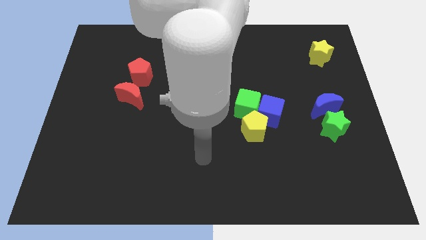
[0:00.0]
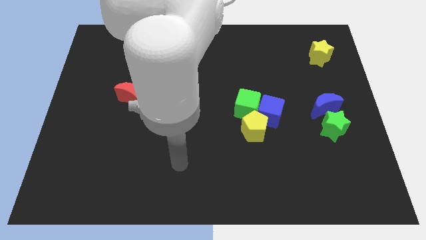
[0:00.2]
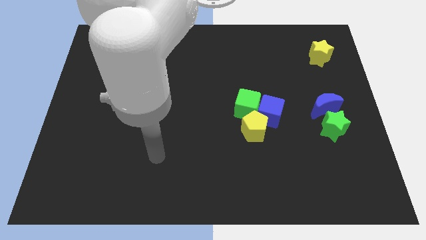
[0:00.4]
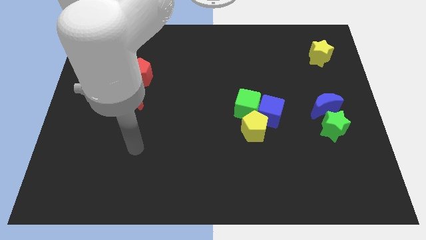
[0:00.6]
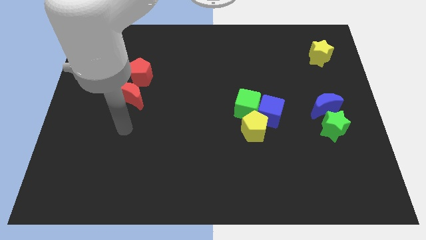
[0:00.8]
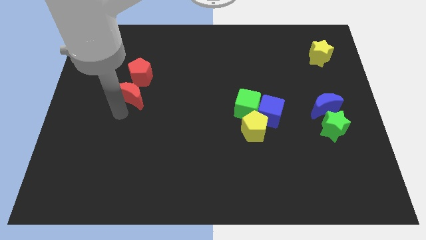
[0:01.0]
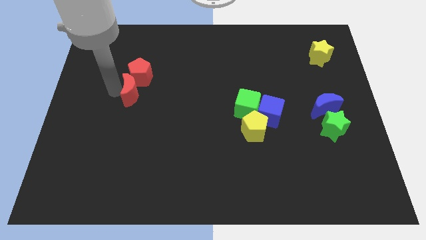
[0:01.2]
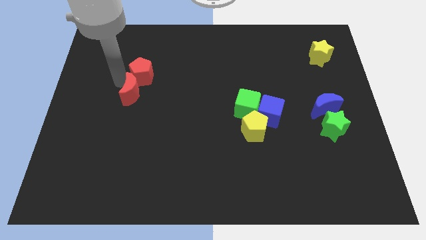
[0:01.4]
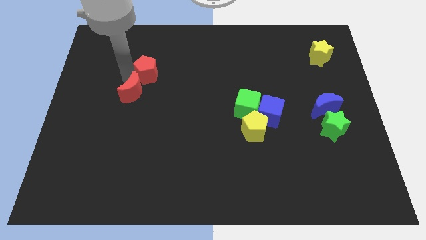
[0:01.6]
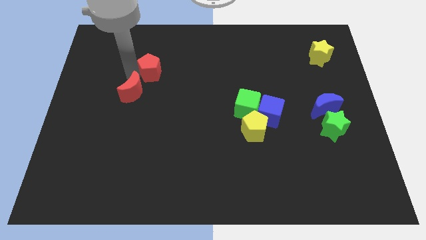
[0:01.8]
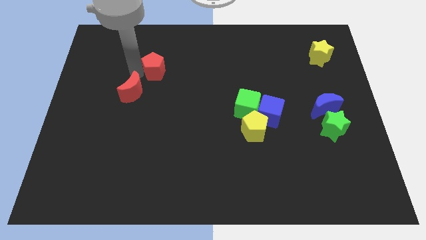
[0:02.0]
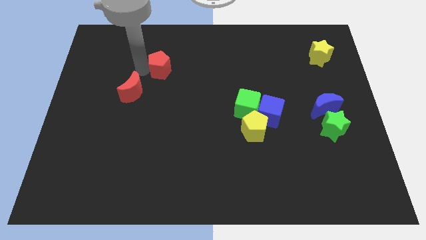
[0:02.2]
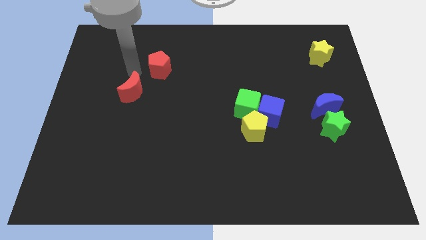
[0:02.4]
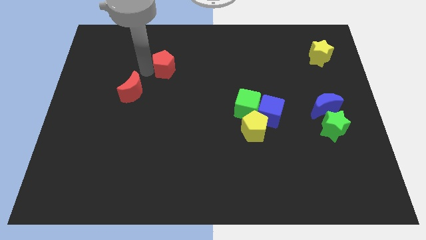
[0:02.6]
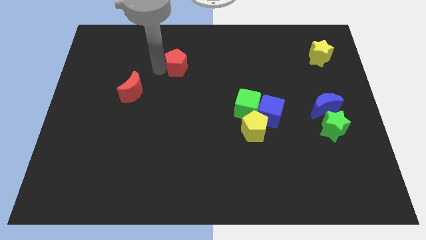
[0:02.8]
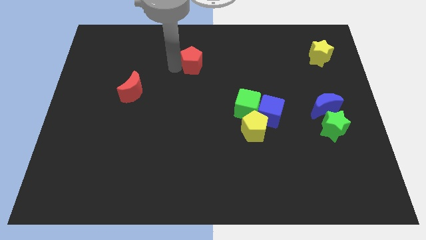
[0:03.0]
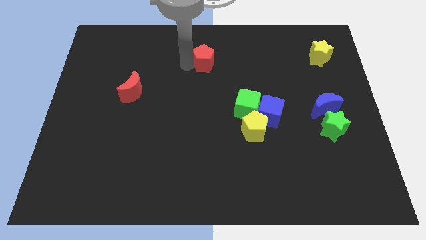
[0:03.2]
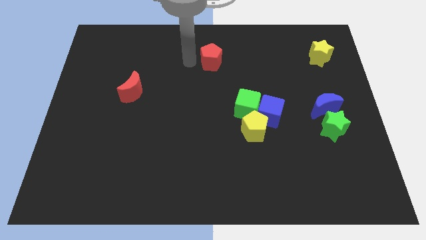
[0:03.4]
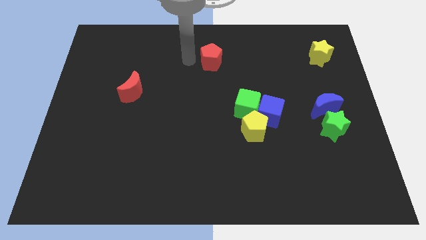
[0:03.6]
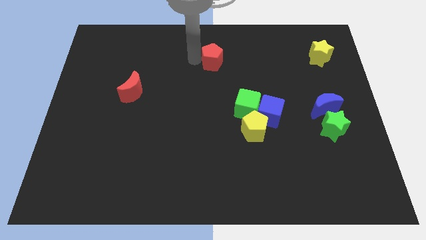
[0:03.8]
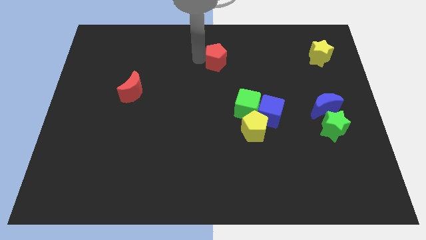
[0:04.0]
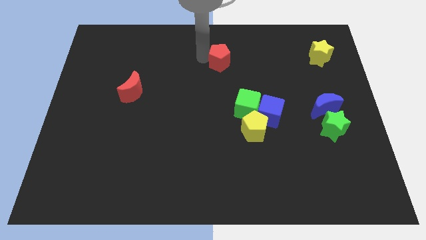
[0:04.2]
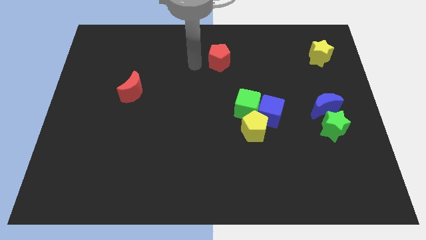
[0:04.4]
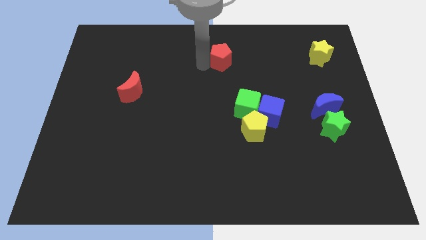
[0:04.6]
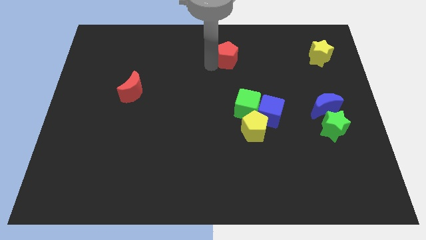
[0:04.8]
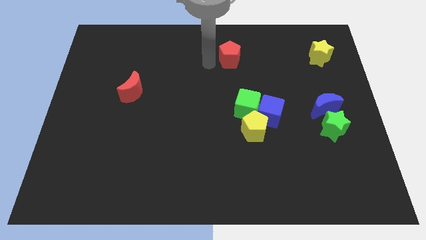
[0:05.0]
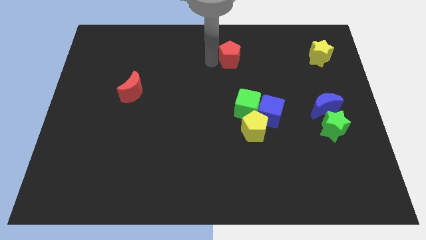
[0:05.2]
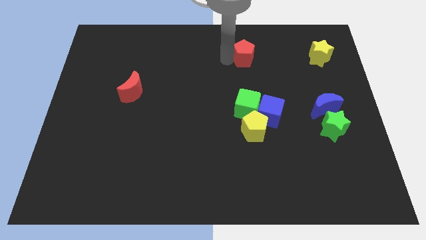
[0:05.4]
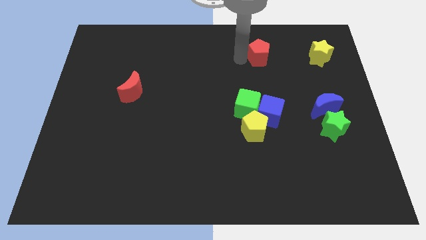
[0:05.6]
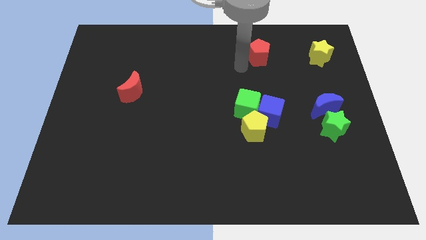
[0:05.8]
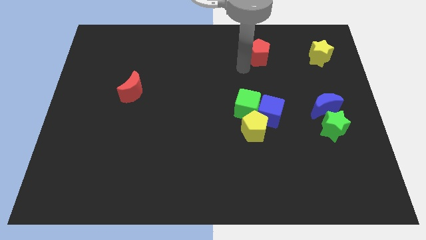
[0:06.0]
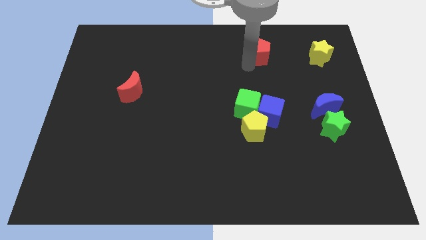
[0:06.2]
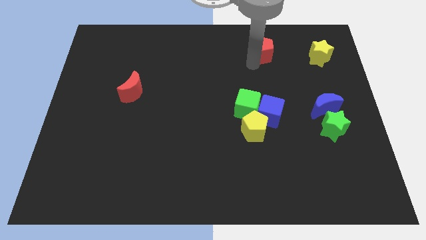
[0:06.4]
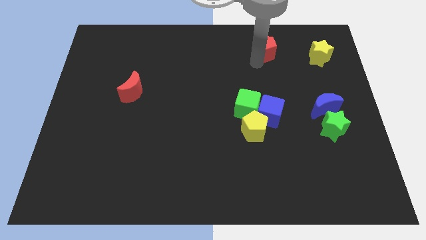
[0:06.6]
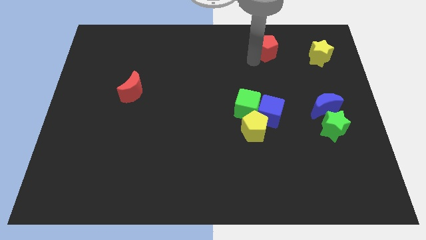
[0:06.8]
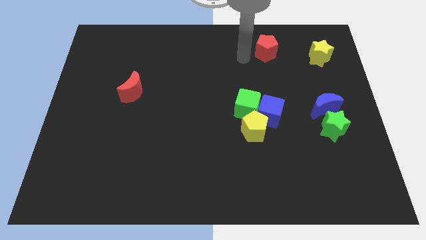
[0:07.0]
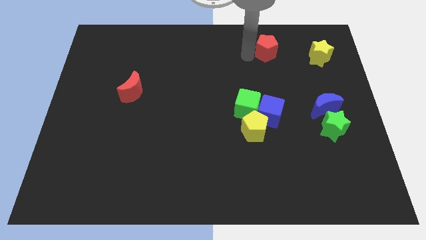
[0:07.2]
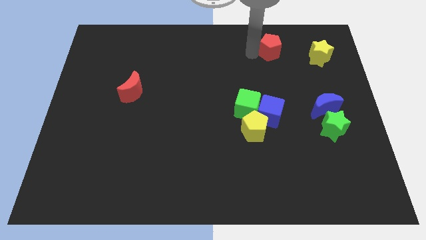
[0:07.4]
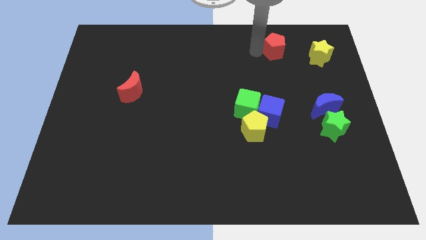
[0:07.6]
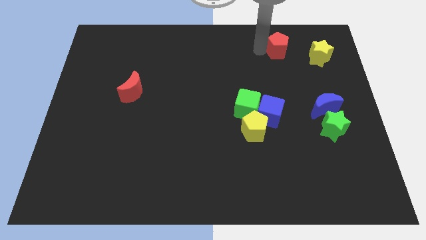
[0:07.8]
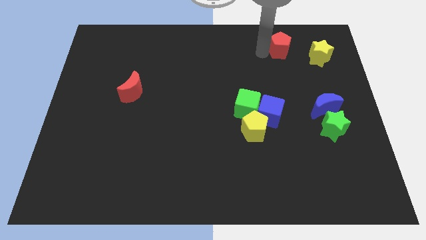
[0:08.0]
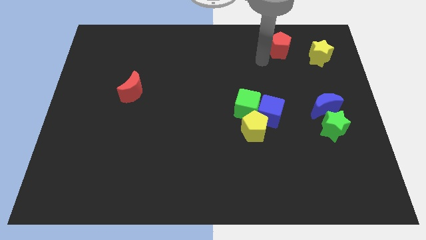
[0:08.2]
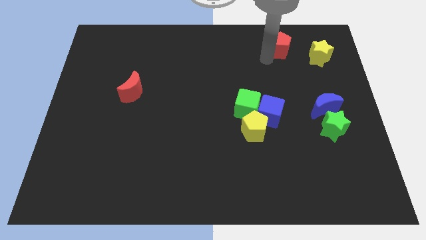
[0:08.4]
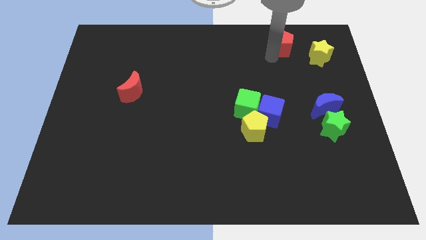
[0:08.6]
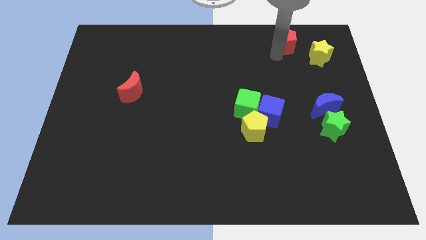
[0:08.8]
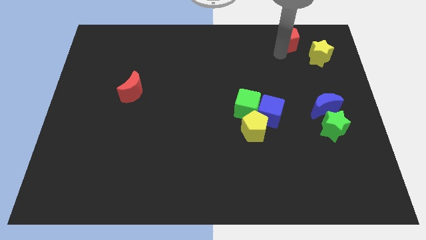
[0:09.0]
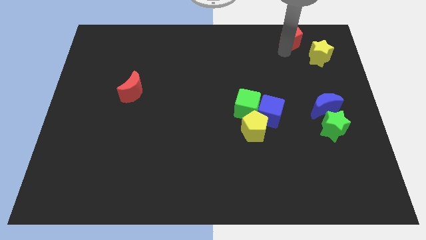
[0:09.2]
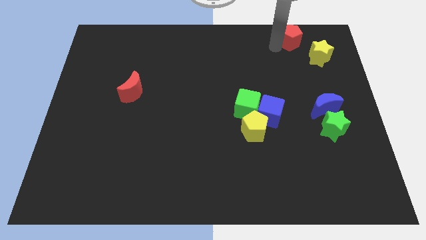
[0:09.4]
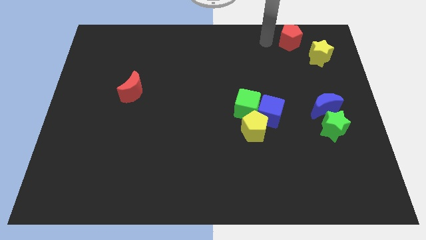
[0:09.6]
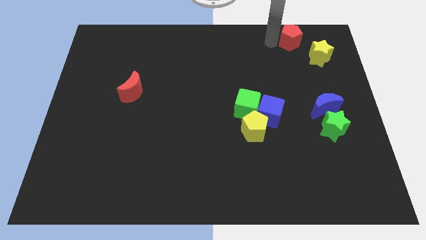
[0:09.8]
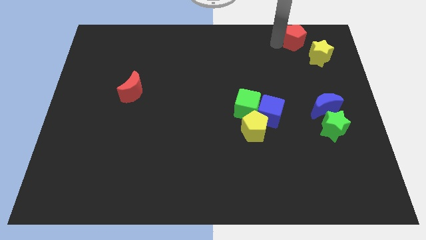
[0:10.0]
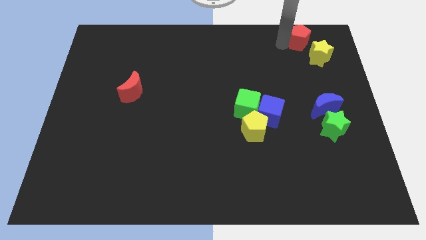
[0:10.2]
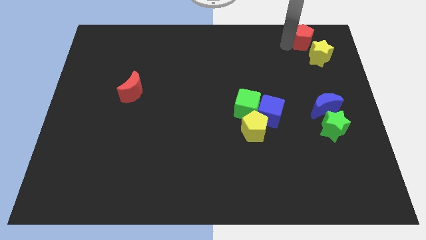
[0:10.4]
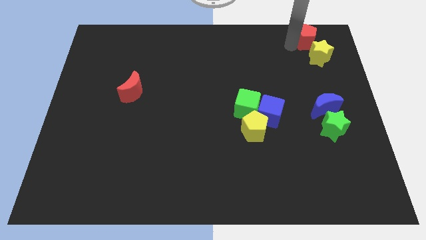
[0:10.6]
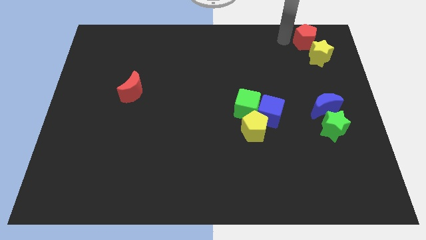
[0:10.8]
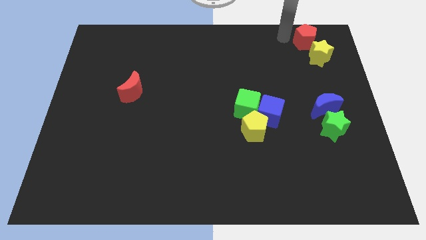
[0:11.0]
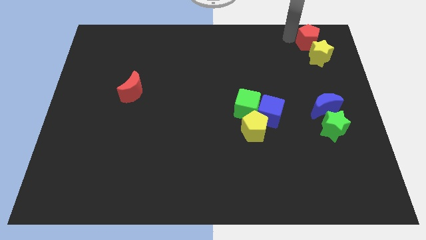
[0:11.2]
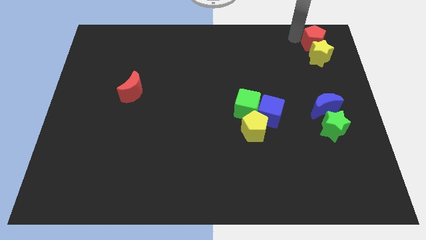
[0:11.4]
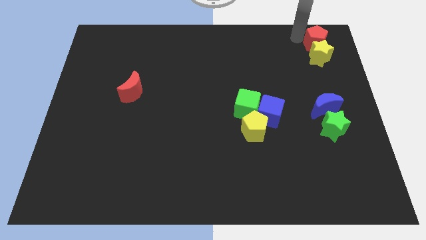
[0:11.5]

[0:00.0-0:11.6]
push the red pentagon to the top right
